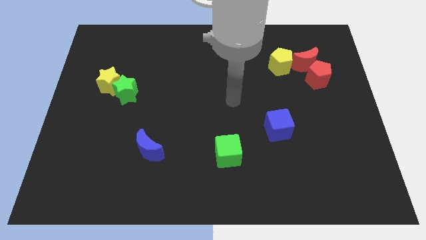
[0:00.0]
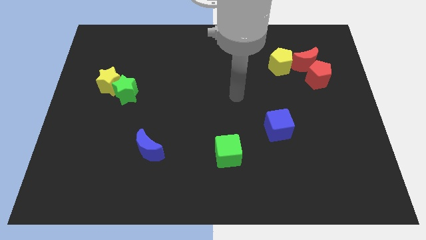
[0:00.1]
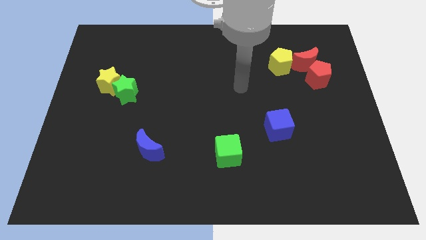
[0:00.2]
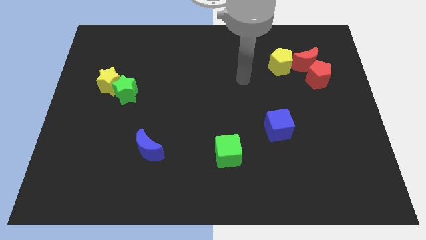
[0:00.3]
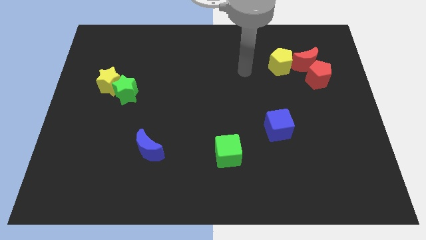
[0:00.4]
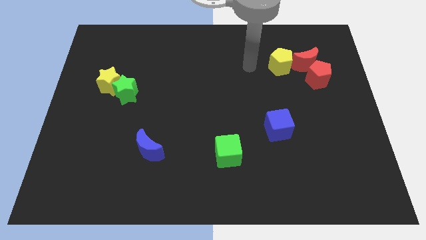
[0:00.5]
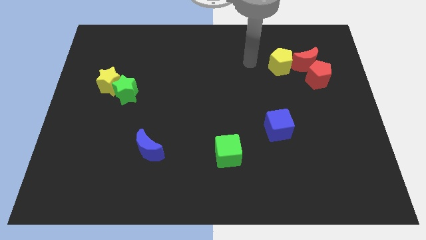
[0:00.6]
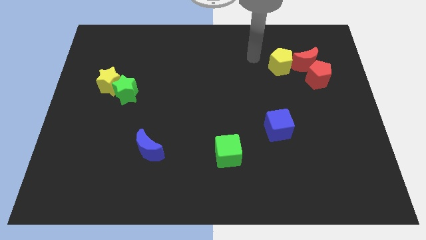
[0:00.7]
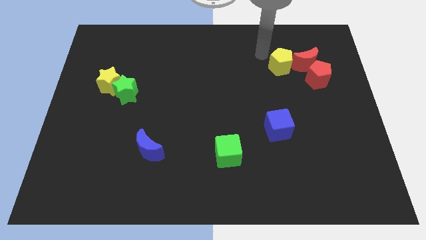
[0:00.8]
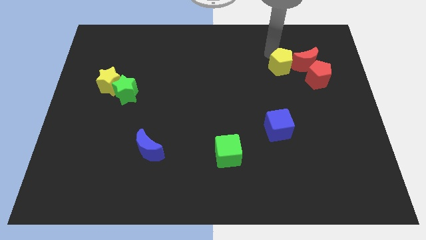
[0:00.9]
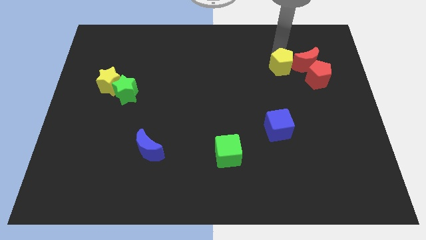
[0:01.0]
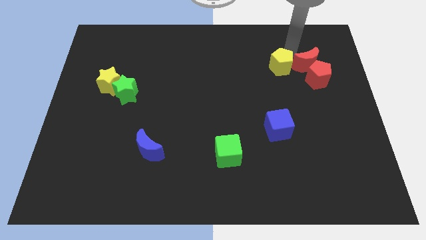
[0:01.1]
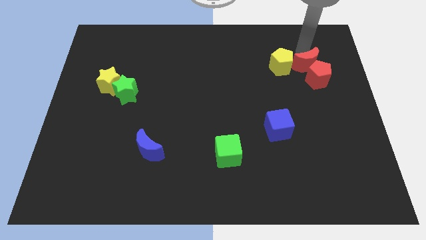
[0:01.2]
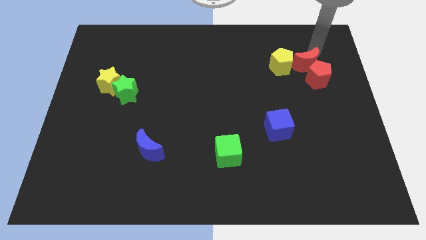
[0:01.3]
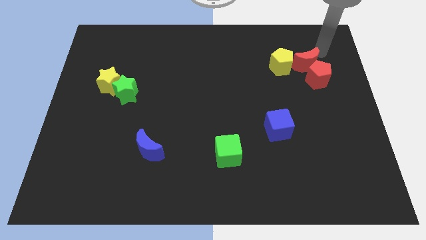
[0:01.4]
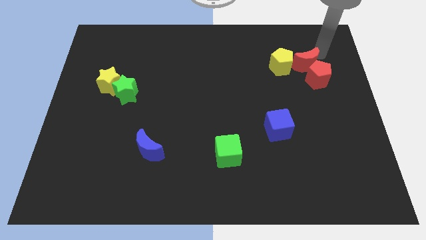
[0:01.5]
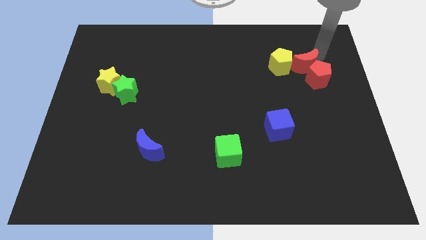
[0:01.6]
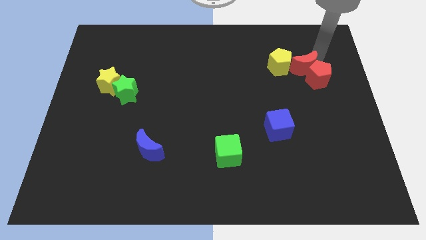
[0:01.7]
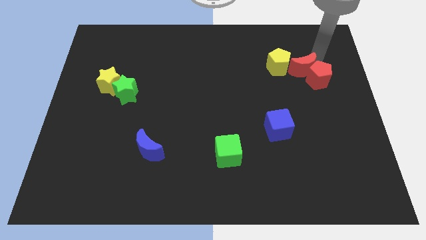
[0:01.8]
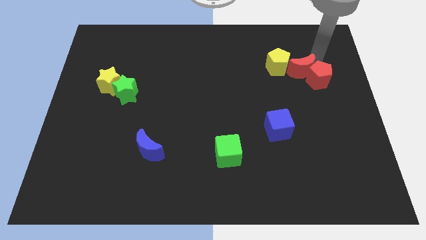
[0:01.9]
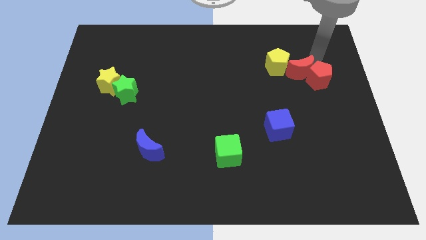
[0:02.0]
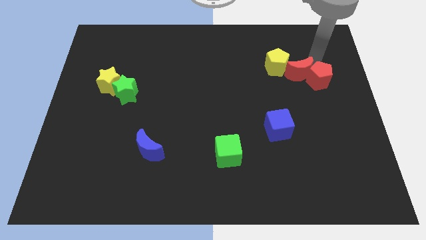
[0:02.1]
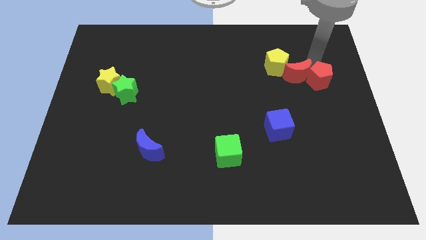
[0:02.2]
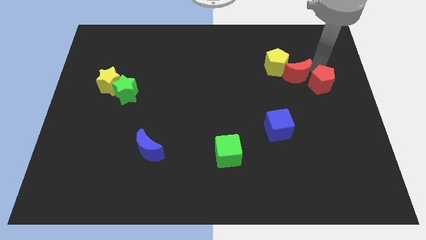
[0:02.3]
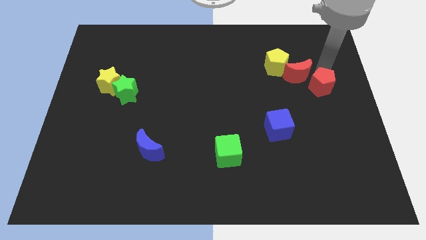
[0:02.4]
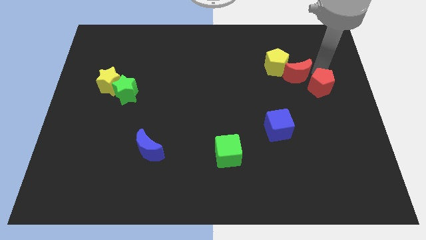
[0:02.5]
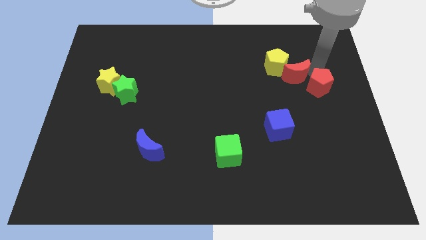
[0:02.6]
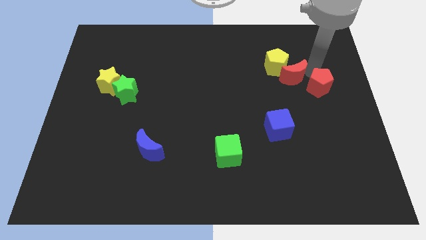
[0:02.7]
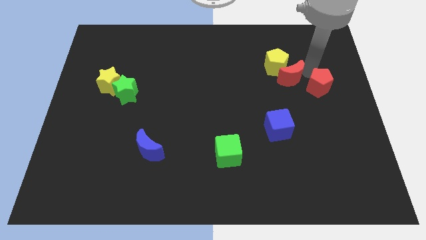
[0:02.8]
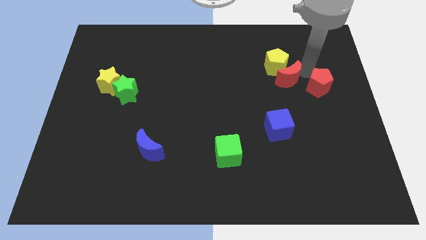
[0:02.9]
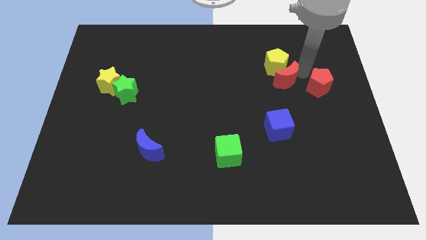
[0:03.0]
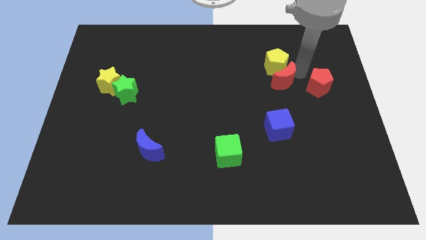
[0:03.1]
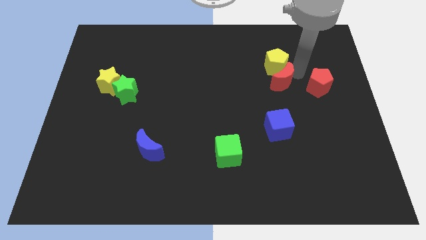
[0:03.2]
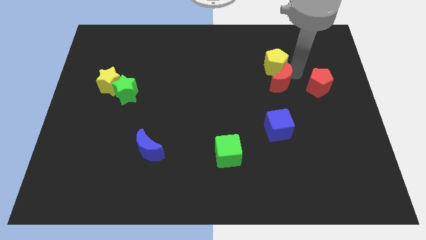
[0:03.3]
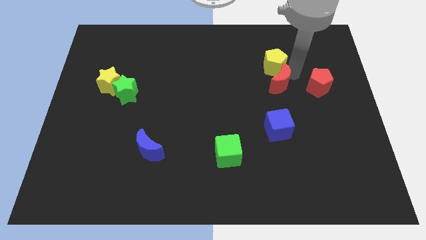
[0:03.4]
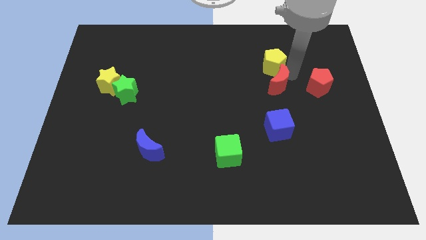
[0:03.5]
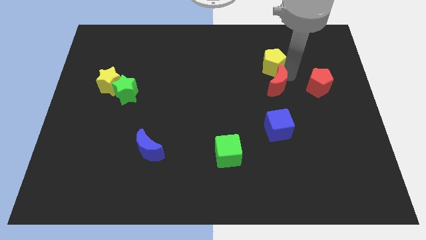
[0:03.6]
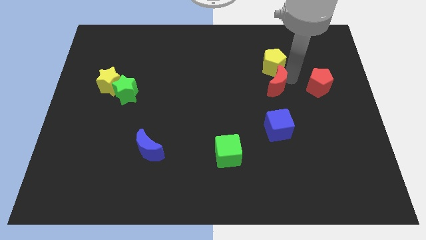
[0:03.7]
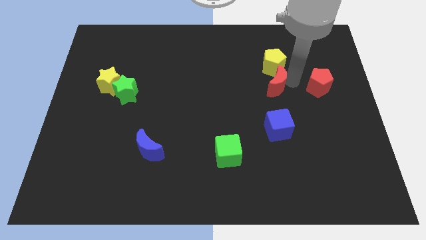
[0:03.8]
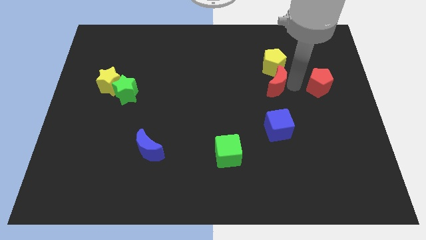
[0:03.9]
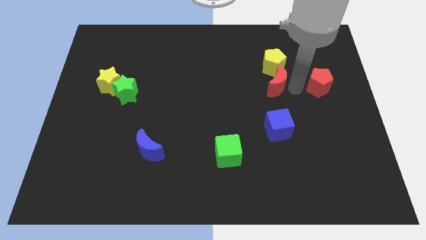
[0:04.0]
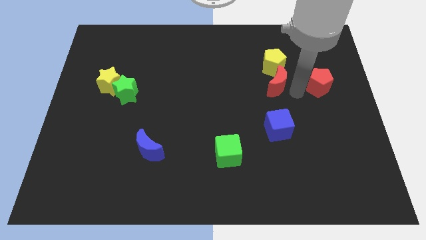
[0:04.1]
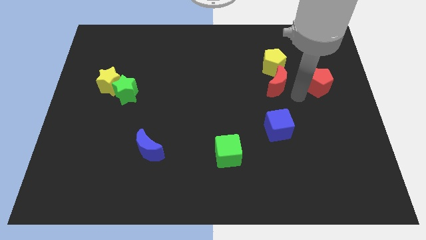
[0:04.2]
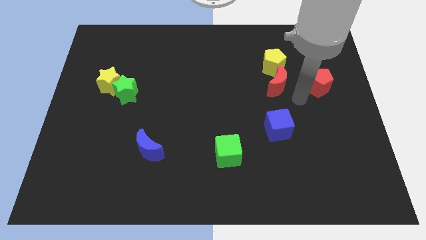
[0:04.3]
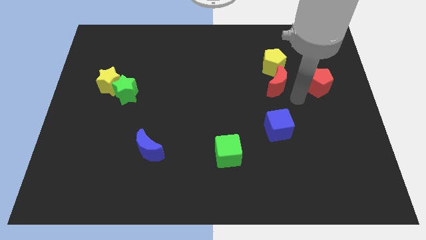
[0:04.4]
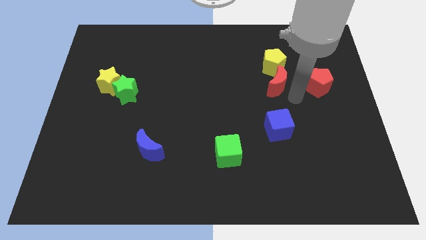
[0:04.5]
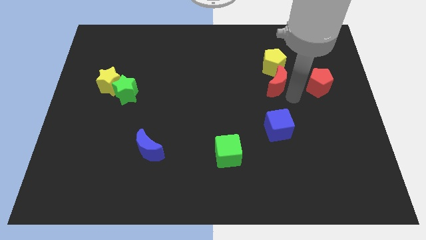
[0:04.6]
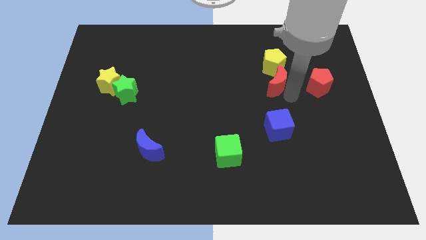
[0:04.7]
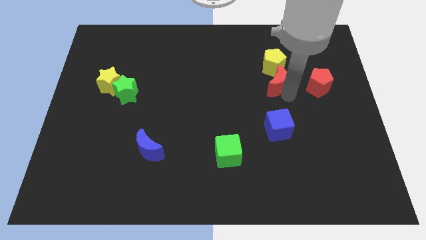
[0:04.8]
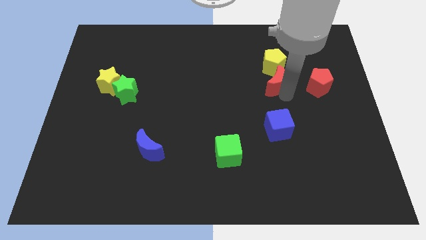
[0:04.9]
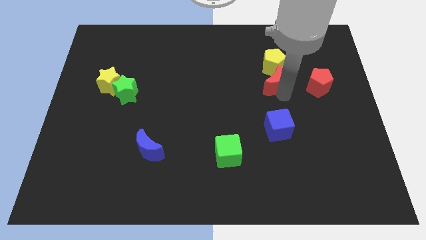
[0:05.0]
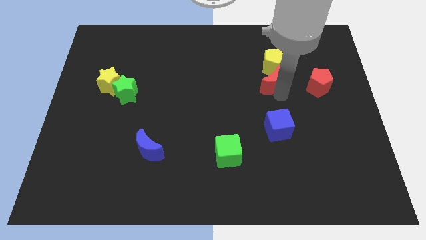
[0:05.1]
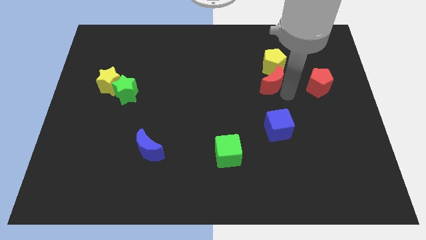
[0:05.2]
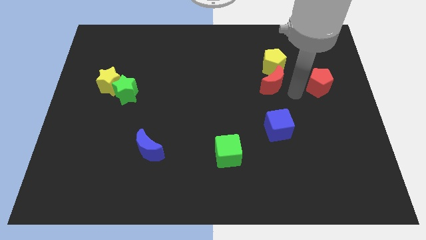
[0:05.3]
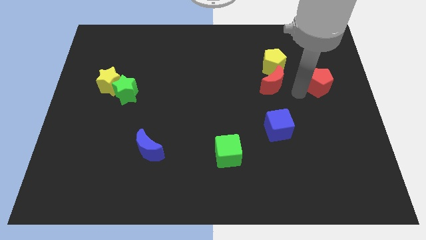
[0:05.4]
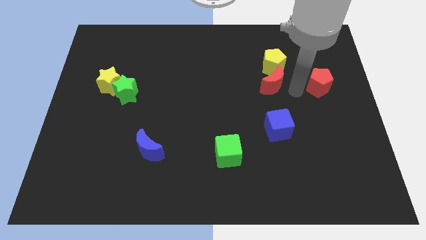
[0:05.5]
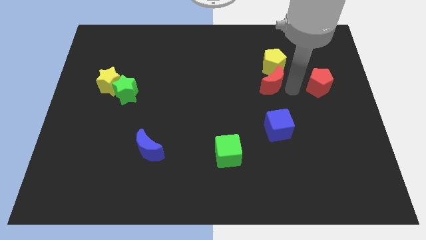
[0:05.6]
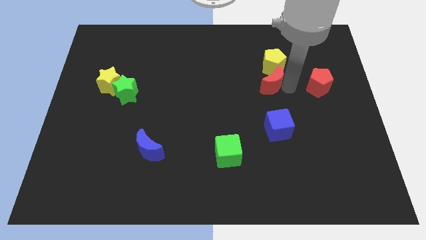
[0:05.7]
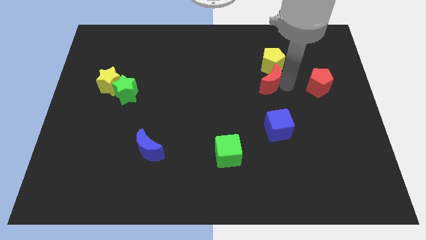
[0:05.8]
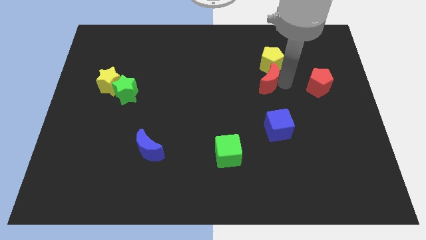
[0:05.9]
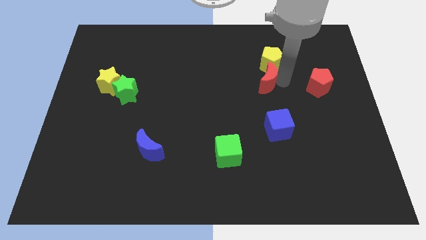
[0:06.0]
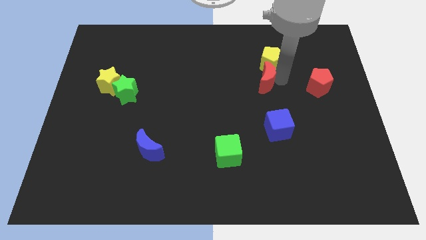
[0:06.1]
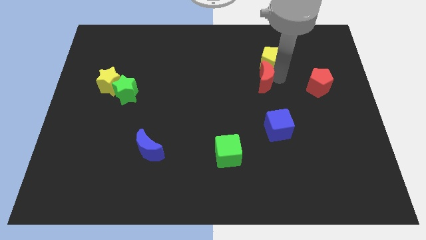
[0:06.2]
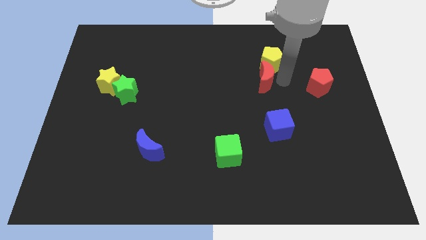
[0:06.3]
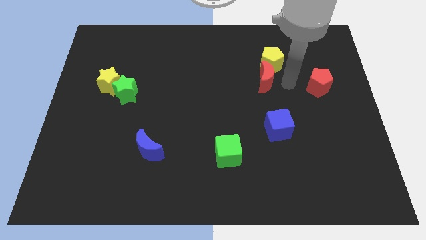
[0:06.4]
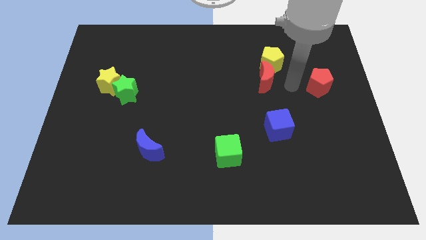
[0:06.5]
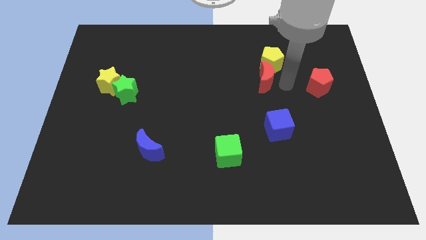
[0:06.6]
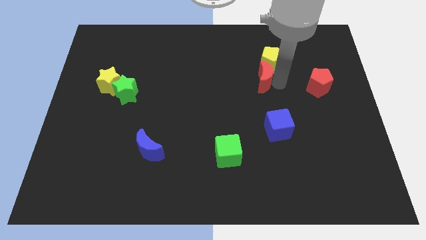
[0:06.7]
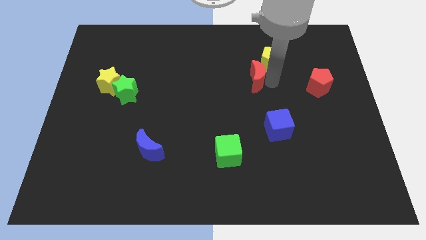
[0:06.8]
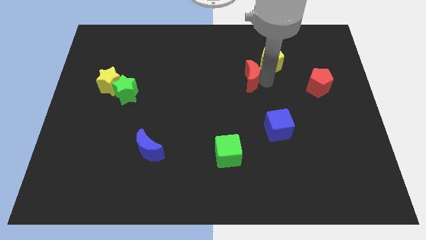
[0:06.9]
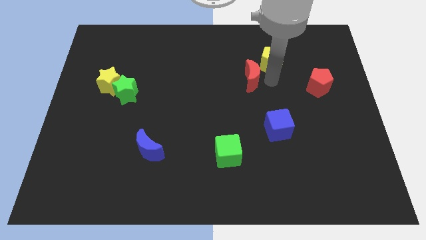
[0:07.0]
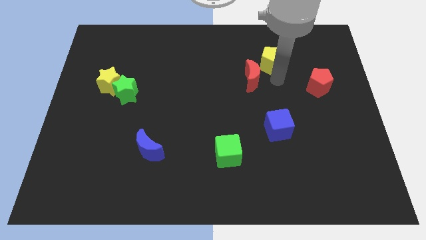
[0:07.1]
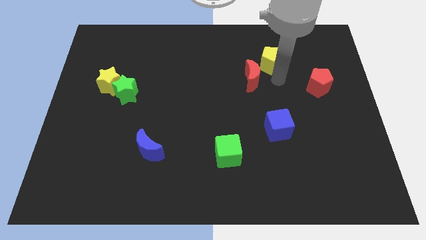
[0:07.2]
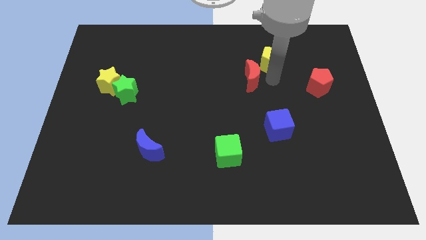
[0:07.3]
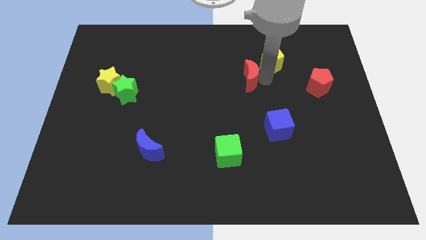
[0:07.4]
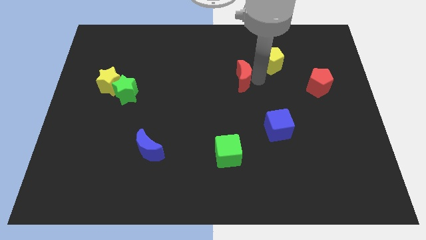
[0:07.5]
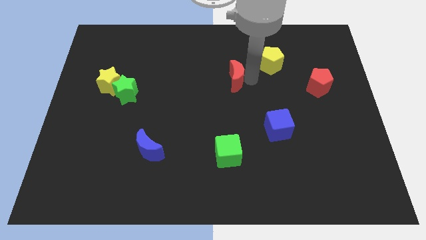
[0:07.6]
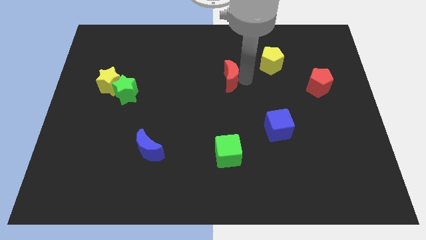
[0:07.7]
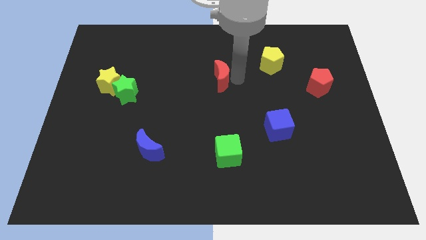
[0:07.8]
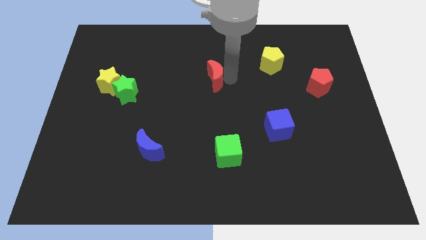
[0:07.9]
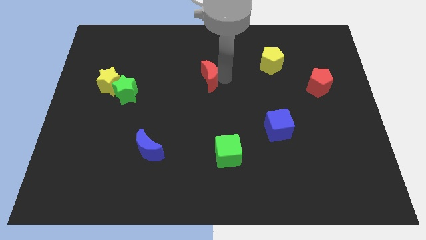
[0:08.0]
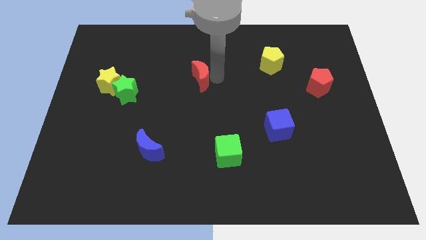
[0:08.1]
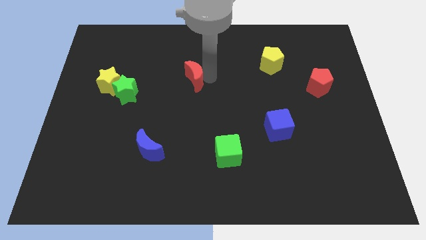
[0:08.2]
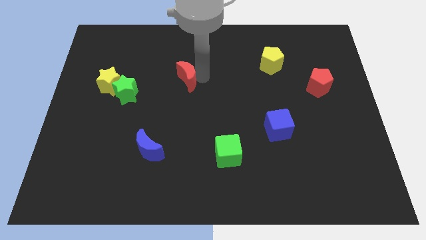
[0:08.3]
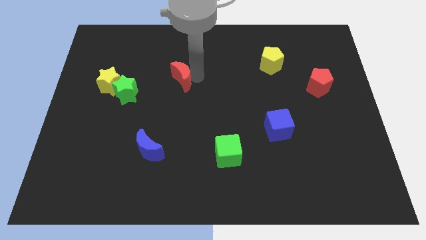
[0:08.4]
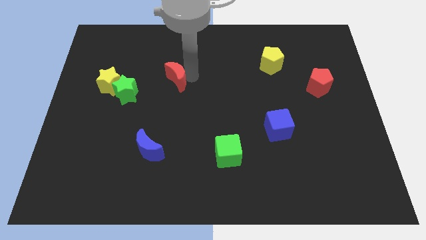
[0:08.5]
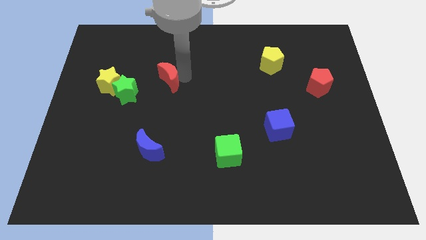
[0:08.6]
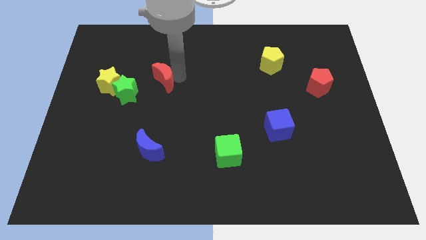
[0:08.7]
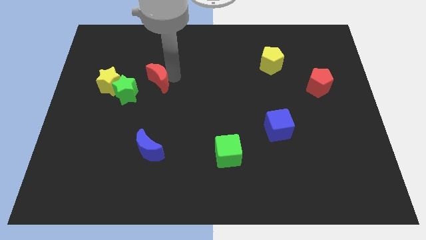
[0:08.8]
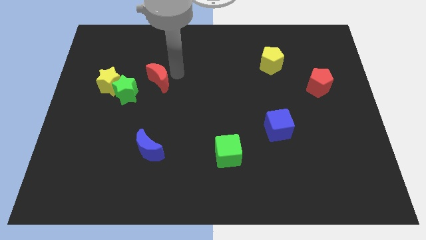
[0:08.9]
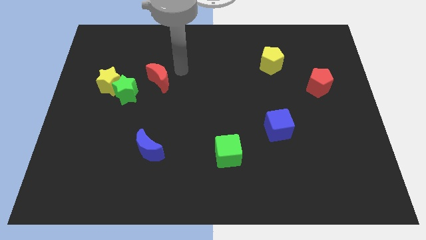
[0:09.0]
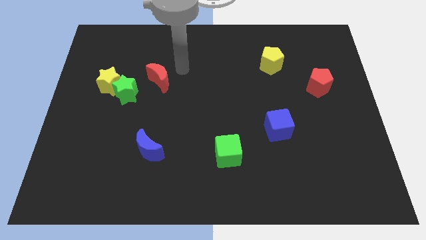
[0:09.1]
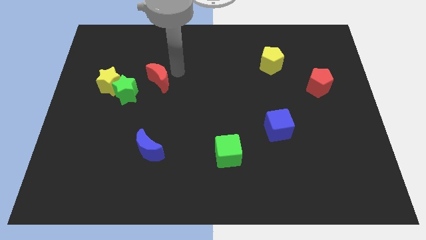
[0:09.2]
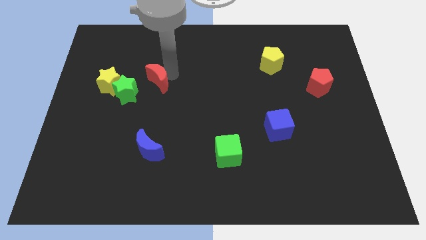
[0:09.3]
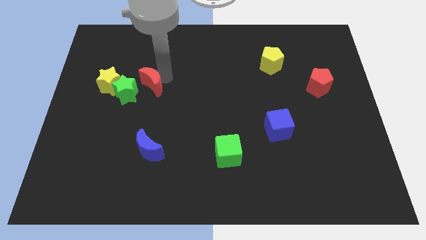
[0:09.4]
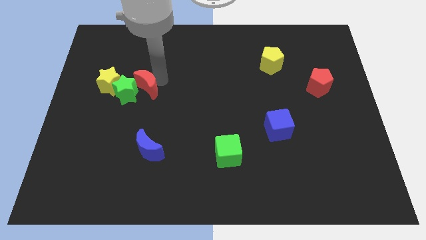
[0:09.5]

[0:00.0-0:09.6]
push the red moon close to the green star
